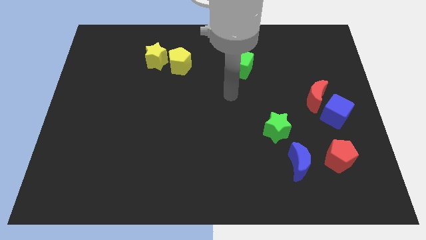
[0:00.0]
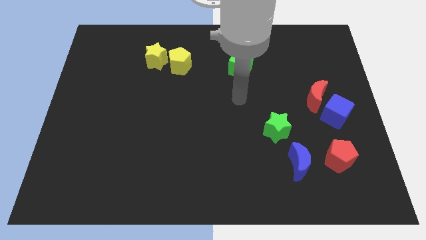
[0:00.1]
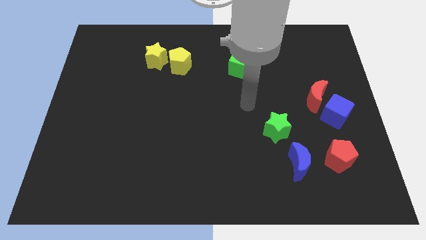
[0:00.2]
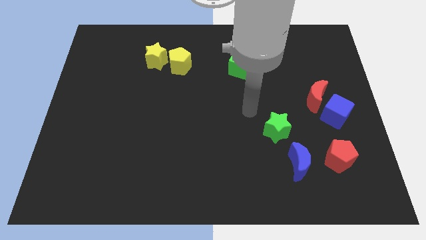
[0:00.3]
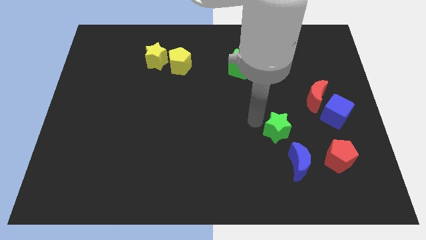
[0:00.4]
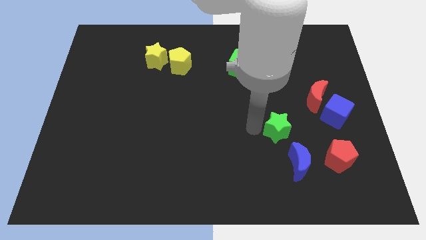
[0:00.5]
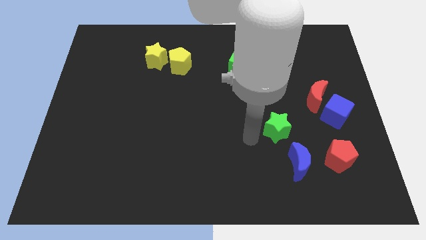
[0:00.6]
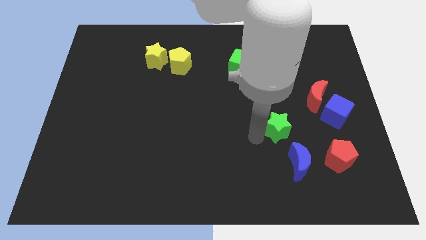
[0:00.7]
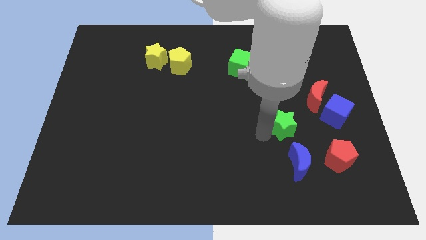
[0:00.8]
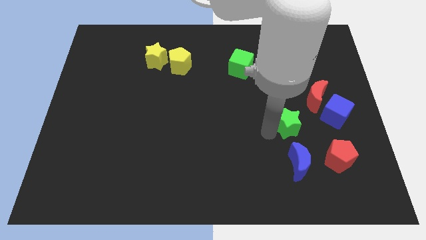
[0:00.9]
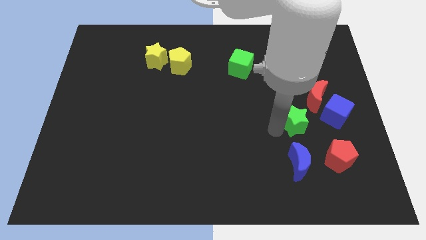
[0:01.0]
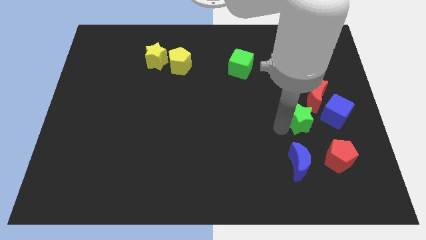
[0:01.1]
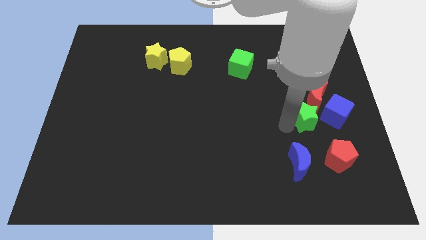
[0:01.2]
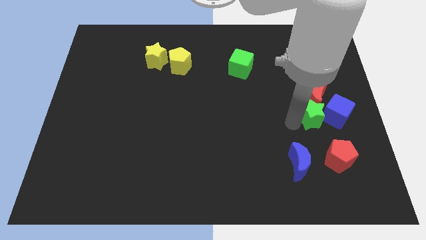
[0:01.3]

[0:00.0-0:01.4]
move the green star towards the blue cube

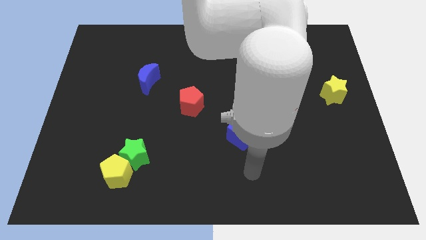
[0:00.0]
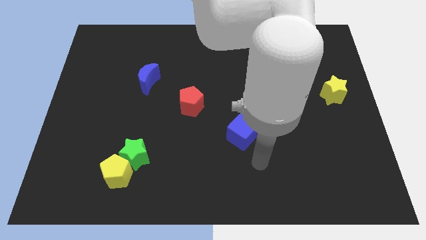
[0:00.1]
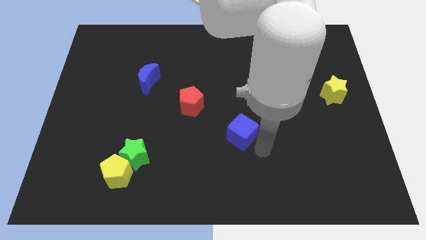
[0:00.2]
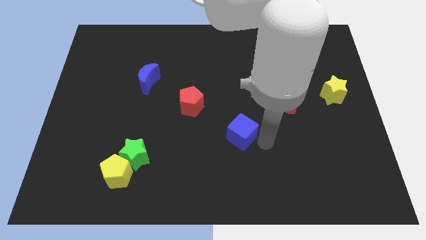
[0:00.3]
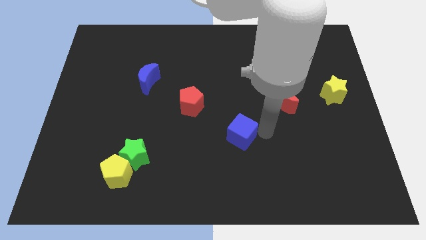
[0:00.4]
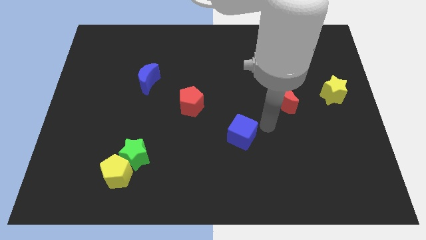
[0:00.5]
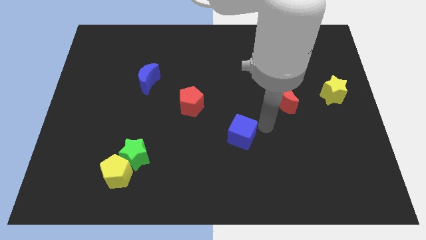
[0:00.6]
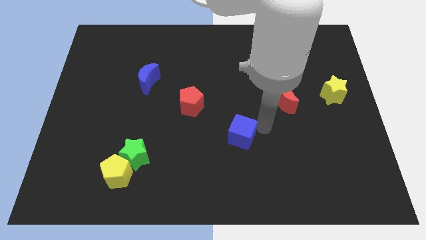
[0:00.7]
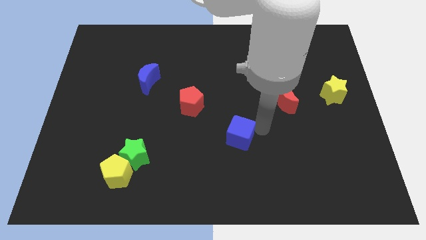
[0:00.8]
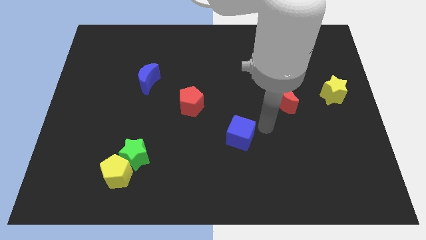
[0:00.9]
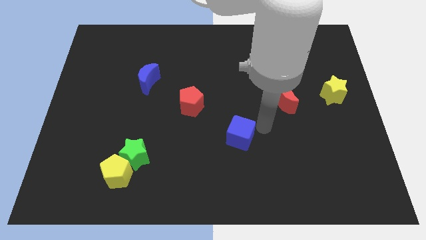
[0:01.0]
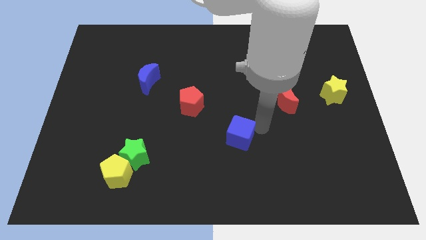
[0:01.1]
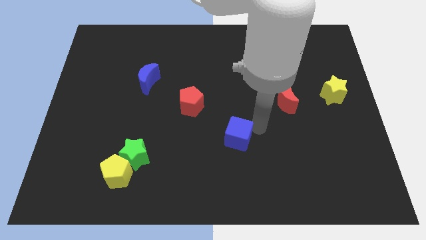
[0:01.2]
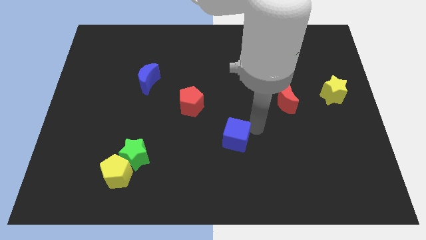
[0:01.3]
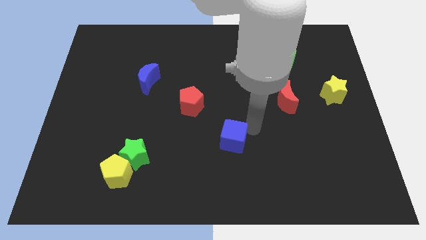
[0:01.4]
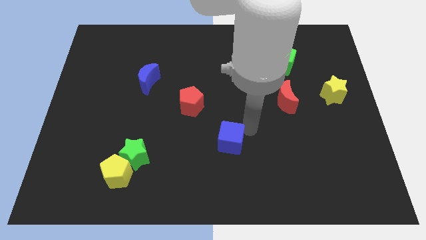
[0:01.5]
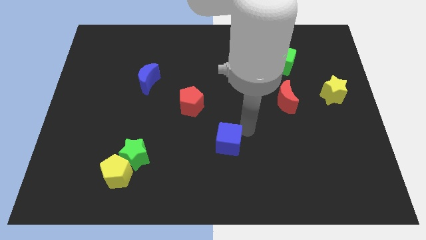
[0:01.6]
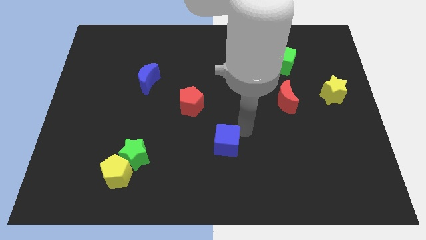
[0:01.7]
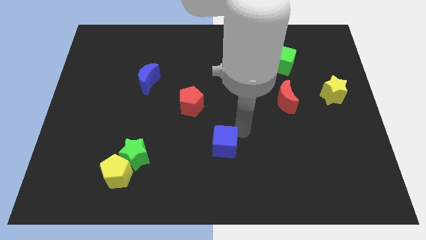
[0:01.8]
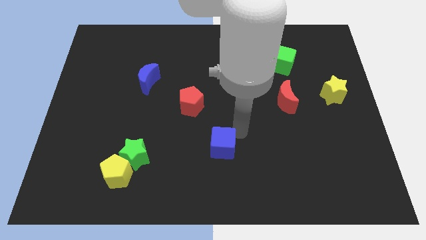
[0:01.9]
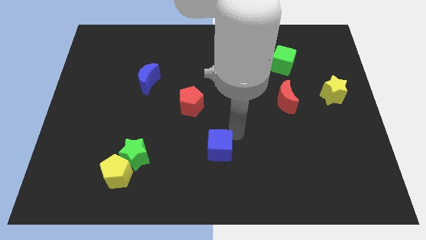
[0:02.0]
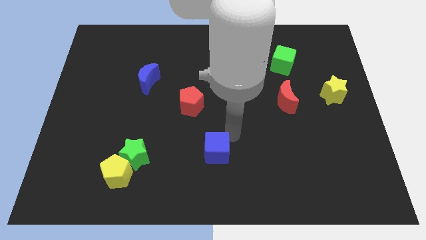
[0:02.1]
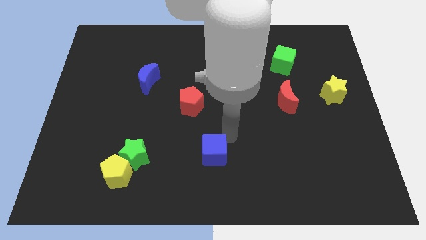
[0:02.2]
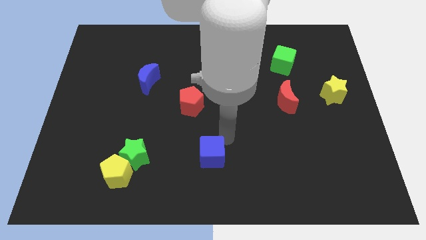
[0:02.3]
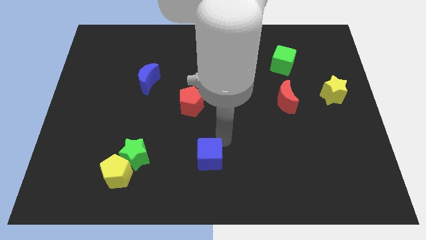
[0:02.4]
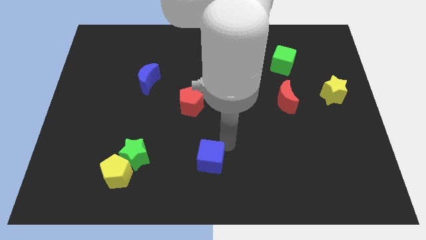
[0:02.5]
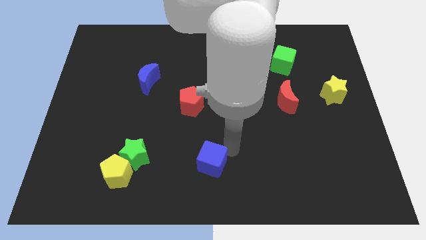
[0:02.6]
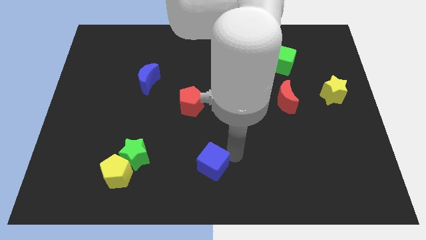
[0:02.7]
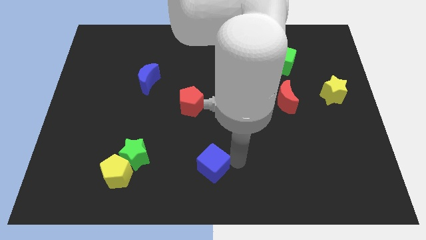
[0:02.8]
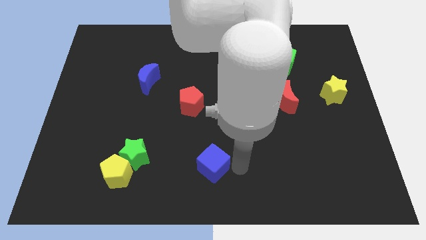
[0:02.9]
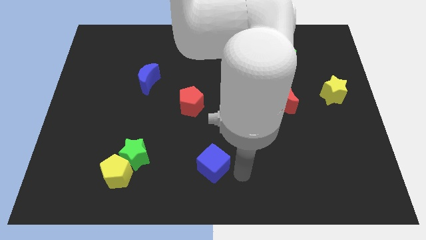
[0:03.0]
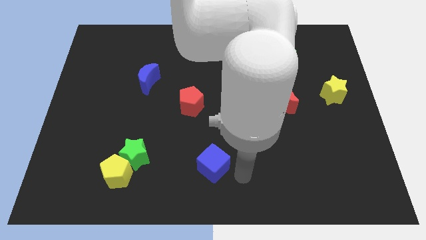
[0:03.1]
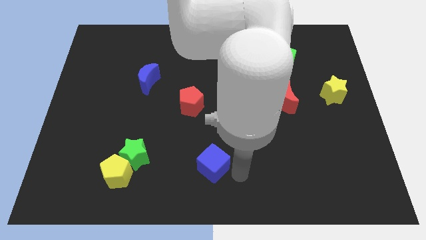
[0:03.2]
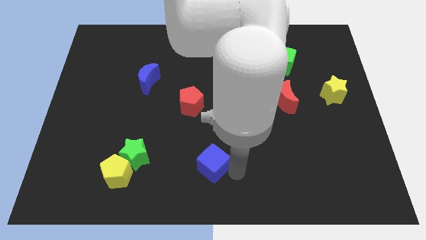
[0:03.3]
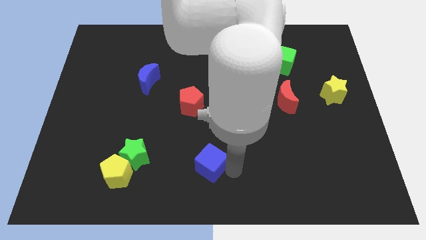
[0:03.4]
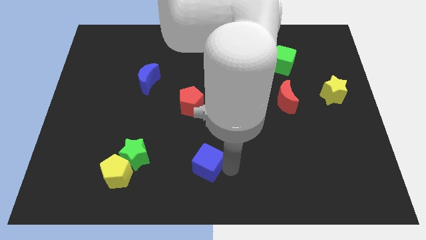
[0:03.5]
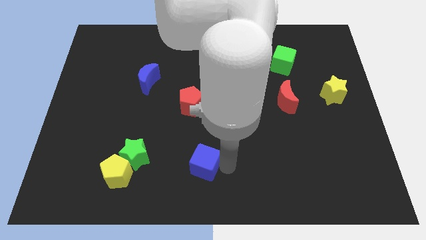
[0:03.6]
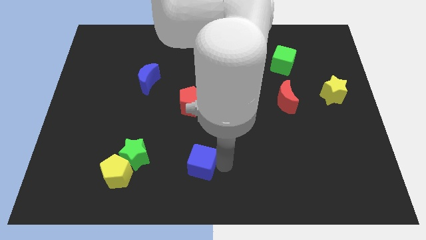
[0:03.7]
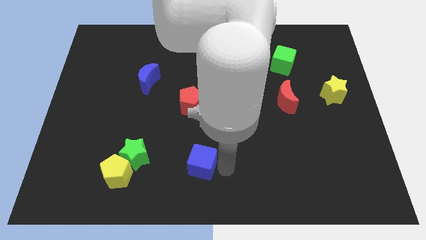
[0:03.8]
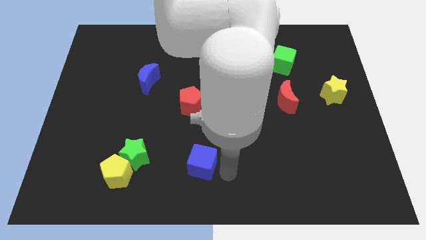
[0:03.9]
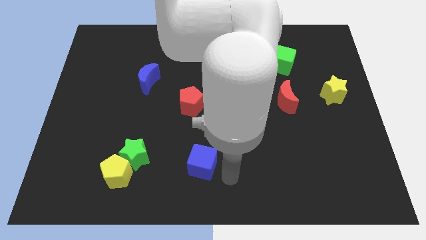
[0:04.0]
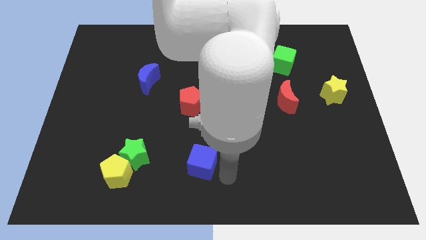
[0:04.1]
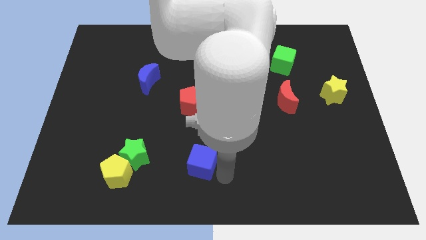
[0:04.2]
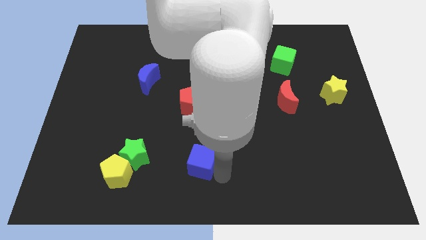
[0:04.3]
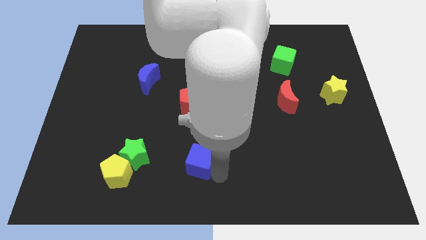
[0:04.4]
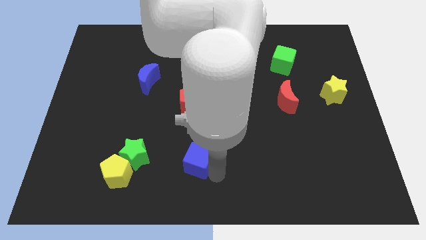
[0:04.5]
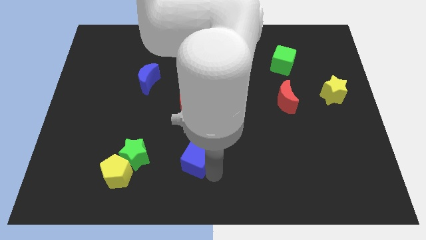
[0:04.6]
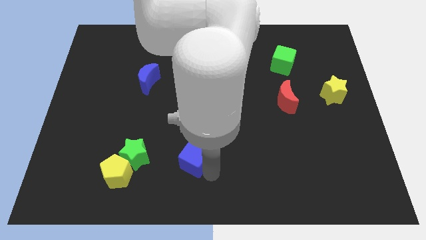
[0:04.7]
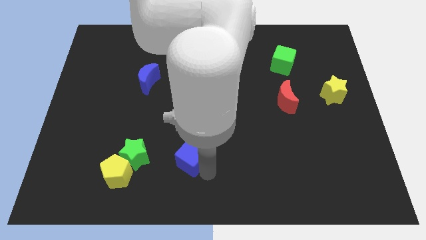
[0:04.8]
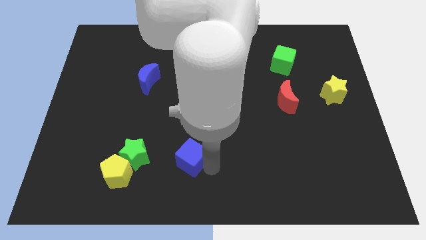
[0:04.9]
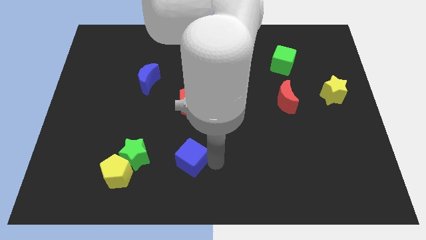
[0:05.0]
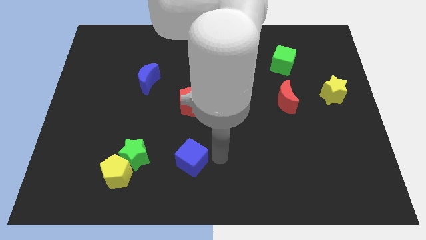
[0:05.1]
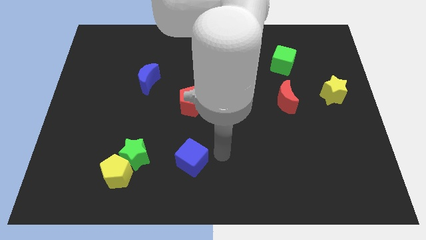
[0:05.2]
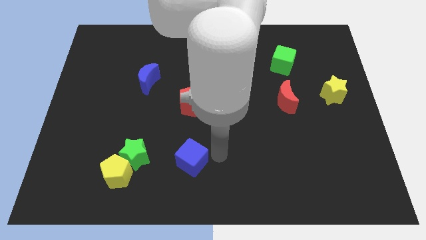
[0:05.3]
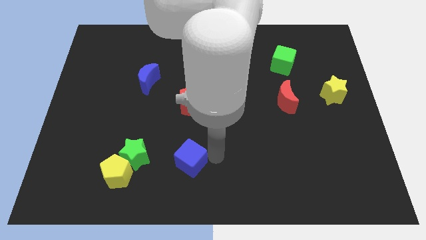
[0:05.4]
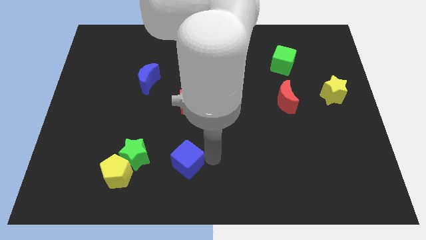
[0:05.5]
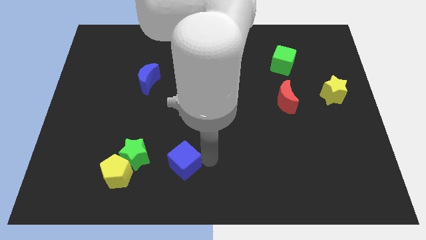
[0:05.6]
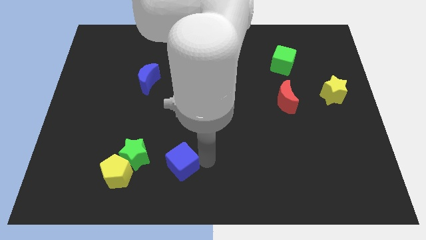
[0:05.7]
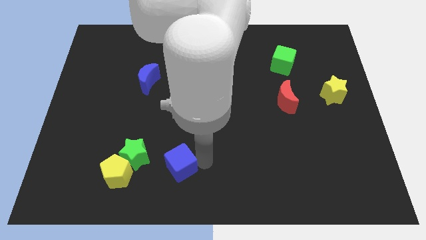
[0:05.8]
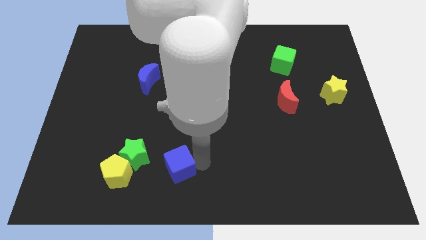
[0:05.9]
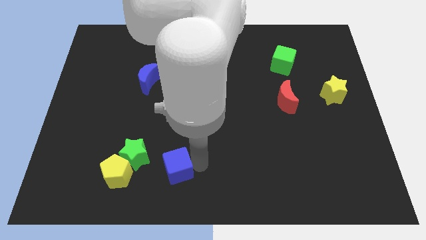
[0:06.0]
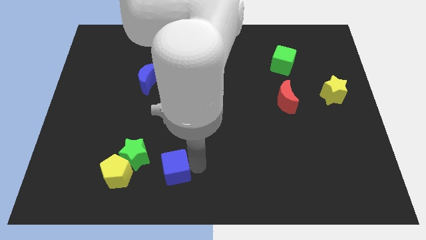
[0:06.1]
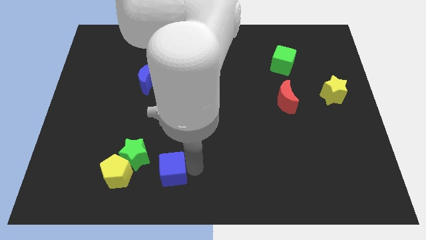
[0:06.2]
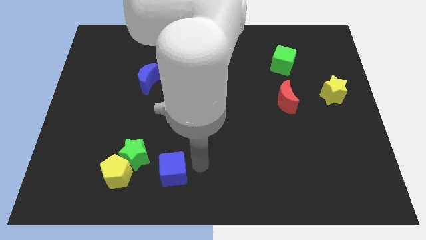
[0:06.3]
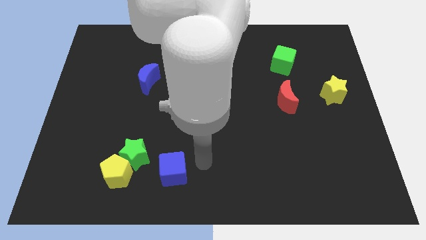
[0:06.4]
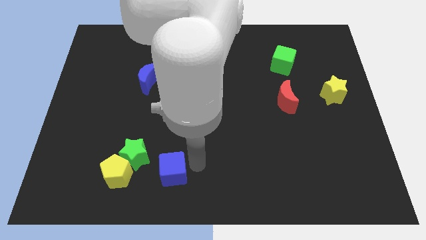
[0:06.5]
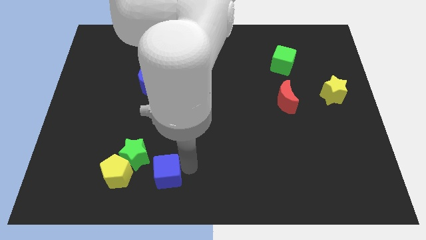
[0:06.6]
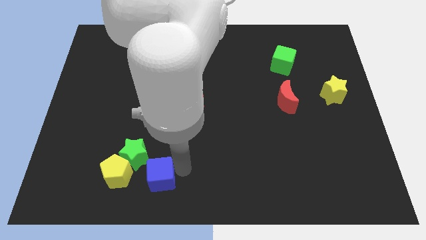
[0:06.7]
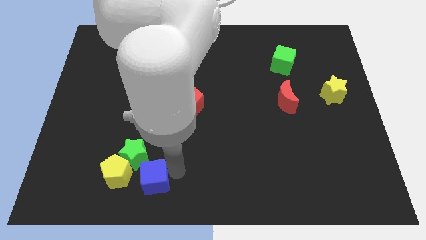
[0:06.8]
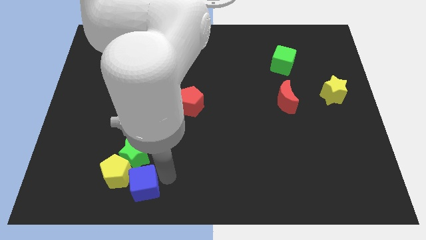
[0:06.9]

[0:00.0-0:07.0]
push the blue cube next to the yellow pentagon

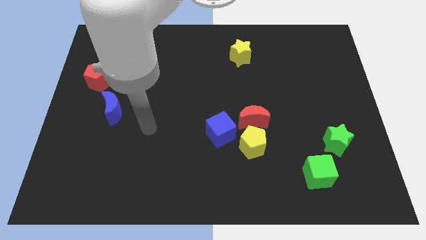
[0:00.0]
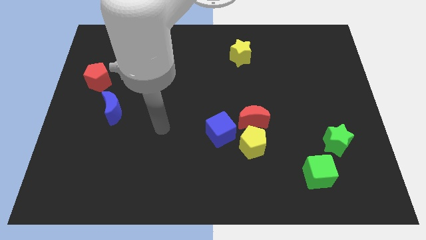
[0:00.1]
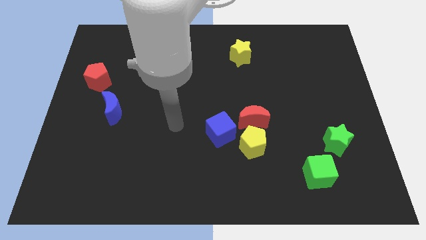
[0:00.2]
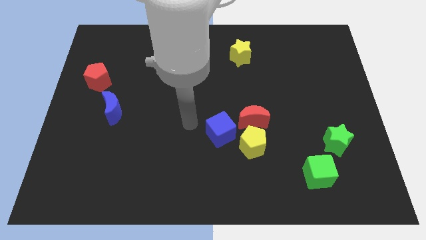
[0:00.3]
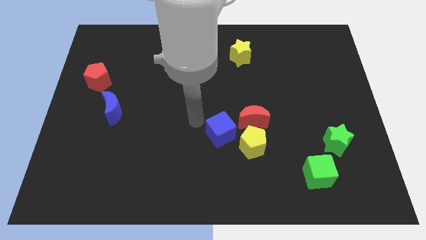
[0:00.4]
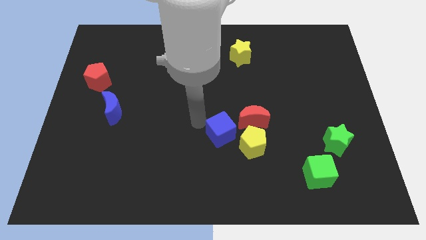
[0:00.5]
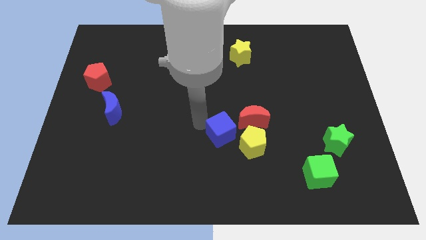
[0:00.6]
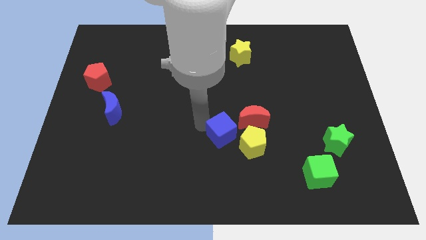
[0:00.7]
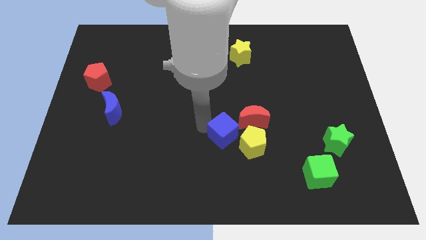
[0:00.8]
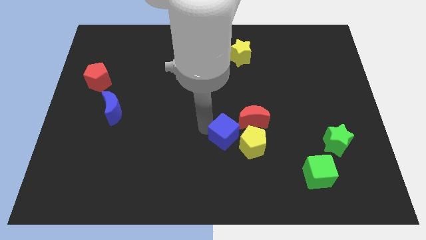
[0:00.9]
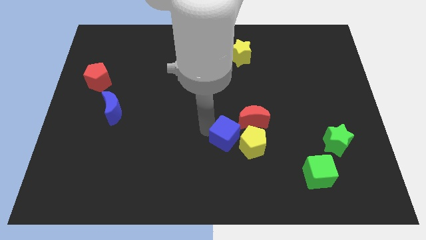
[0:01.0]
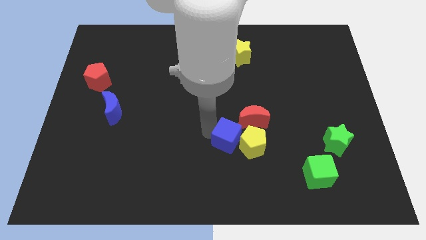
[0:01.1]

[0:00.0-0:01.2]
put the blue cube towards the yellow pentagon
